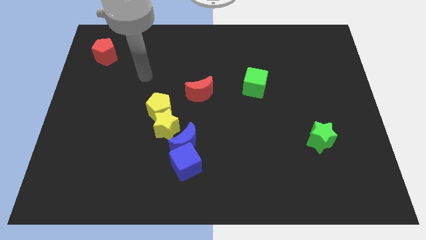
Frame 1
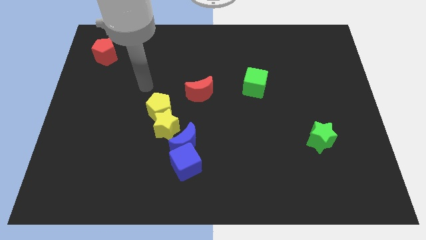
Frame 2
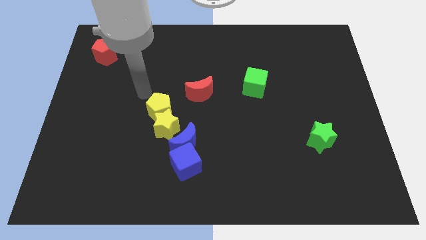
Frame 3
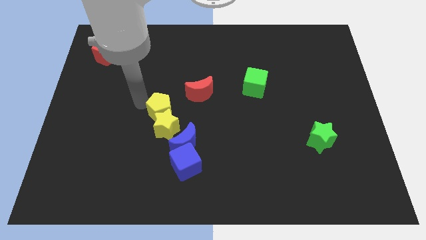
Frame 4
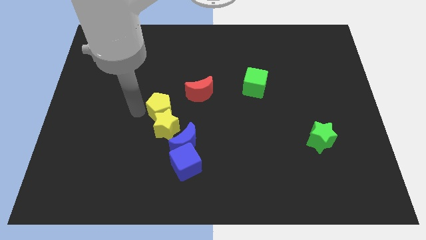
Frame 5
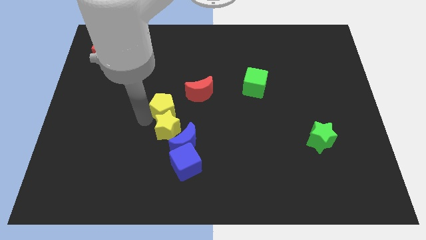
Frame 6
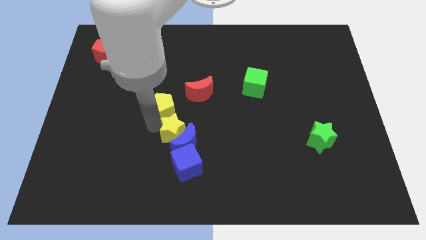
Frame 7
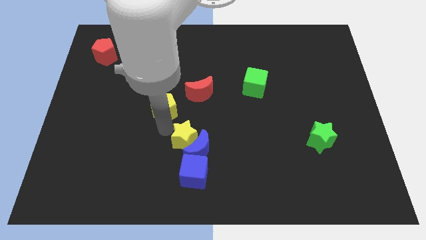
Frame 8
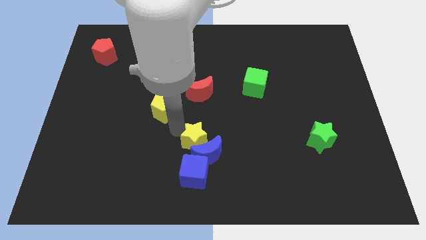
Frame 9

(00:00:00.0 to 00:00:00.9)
separate the yellow pentagon from the yellow star

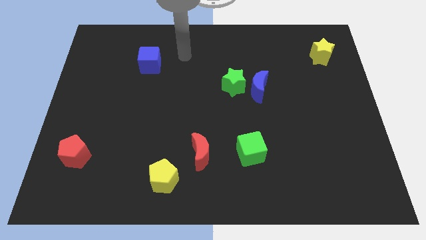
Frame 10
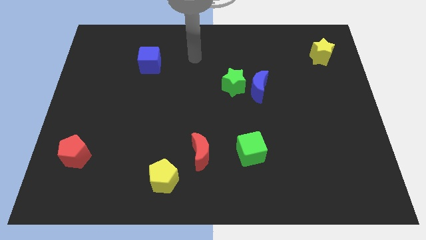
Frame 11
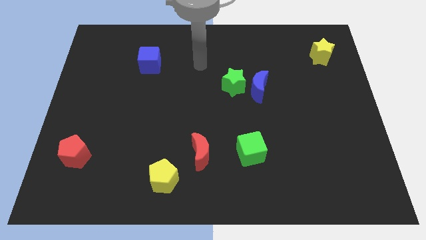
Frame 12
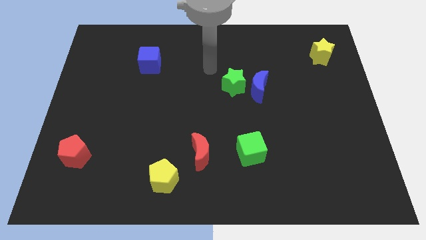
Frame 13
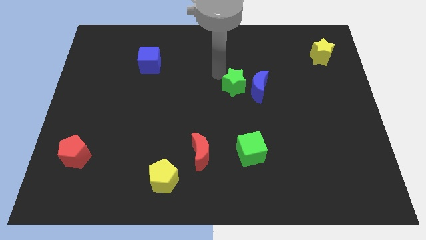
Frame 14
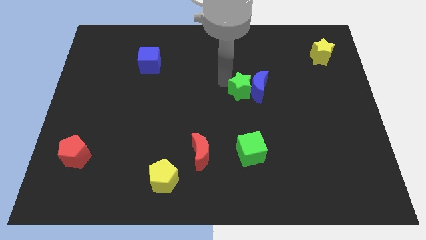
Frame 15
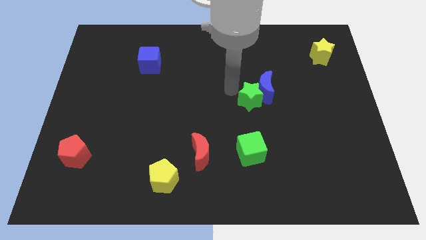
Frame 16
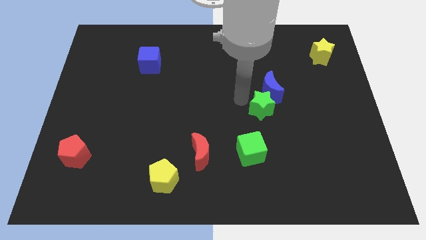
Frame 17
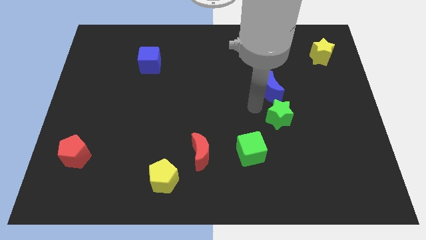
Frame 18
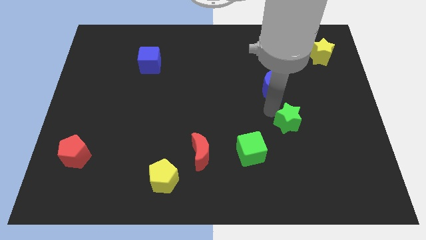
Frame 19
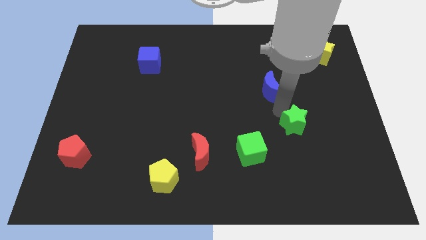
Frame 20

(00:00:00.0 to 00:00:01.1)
separate the blue moon from the green star

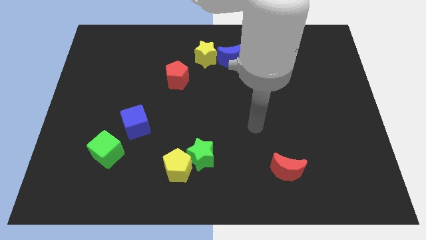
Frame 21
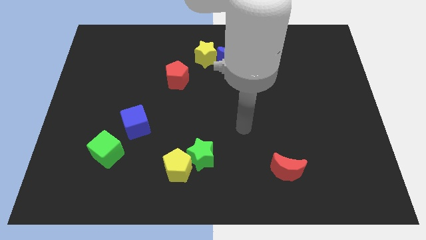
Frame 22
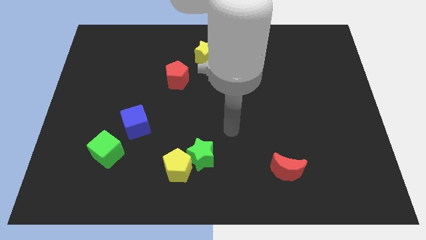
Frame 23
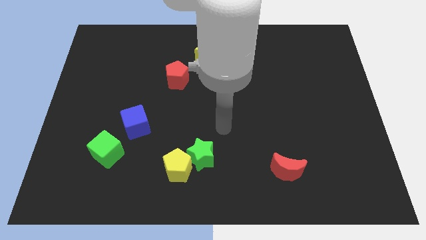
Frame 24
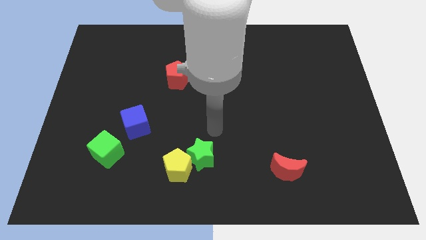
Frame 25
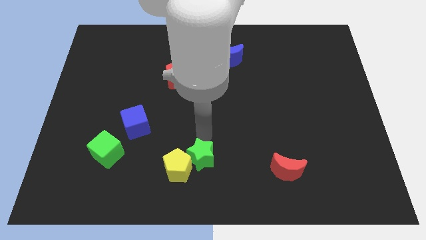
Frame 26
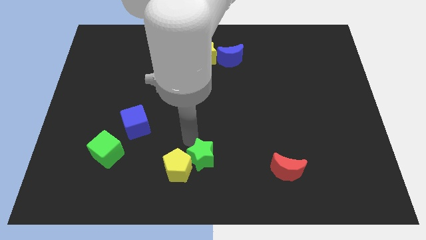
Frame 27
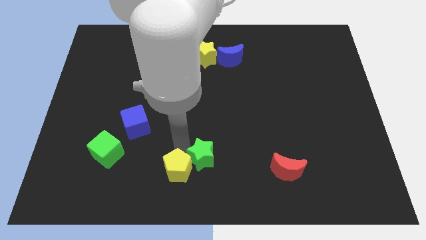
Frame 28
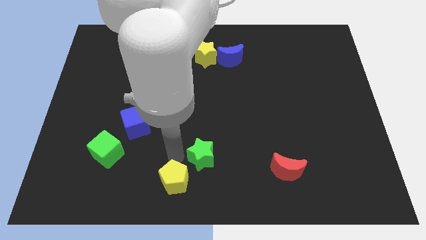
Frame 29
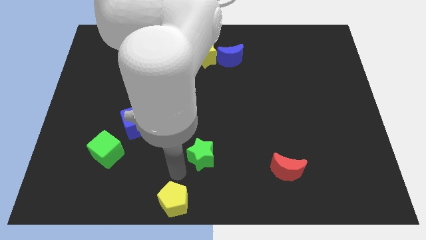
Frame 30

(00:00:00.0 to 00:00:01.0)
separate the green star from the yellow pentagon

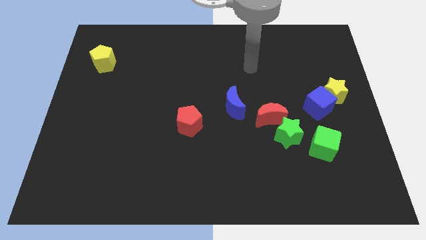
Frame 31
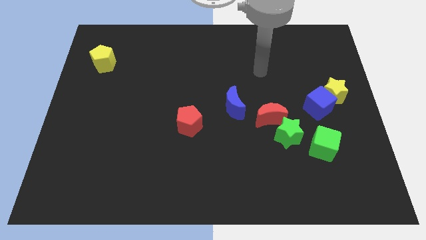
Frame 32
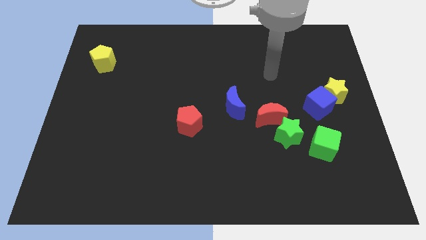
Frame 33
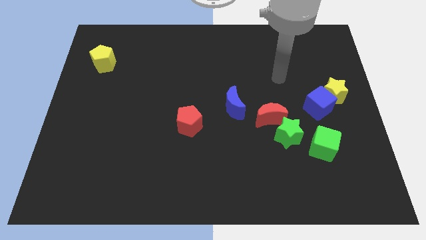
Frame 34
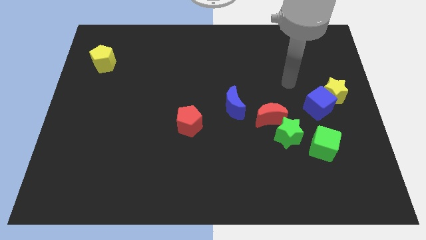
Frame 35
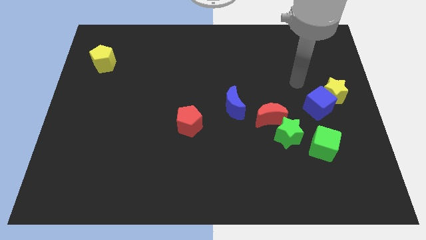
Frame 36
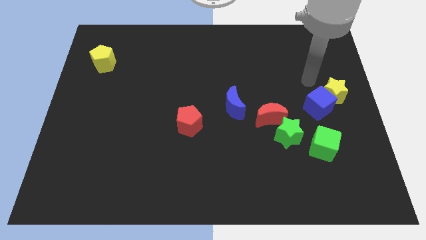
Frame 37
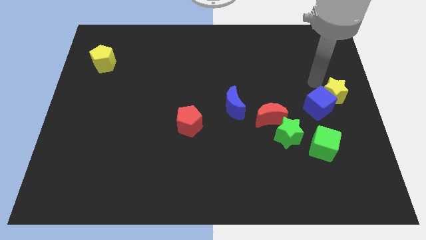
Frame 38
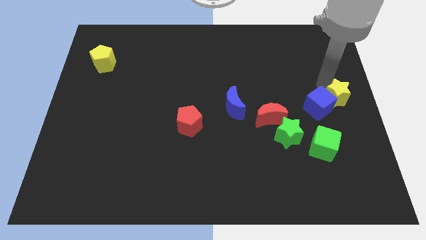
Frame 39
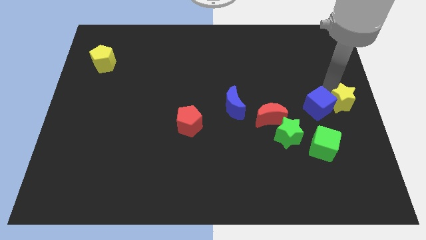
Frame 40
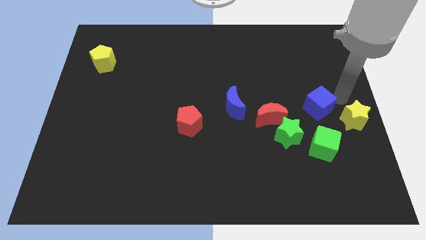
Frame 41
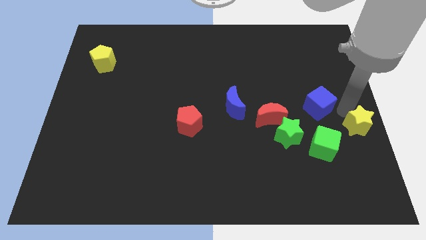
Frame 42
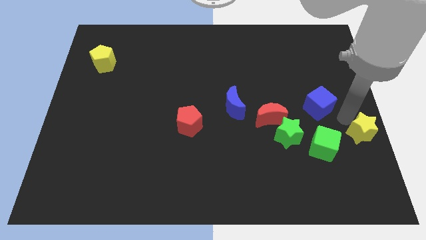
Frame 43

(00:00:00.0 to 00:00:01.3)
pull the blue cube apart from the yellow star

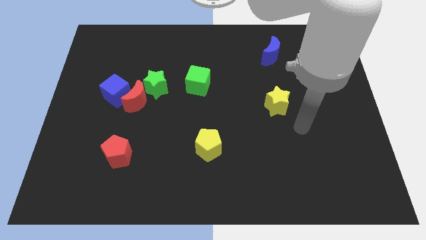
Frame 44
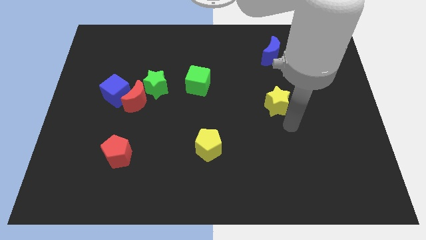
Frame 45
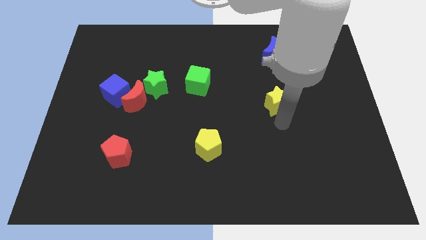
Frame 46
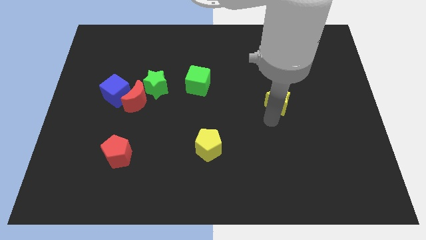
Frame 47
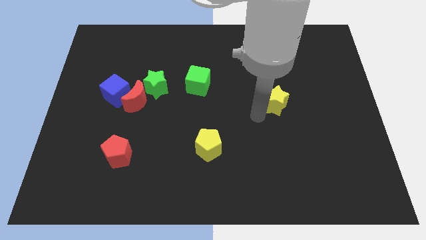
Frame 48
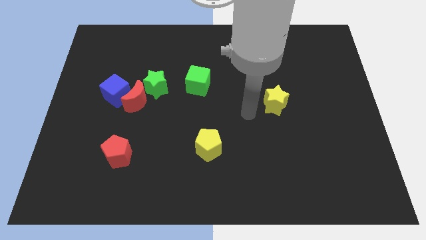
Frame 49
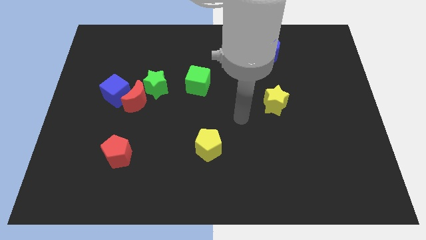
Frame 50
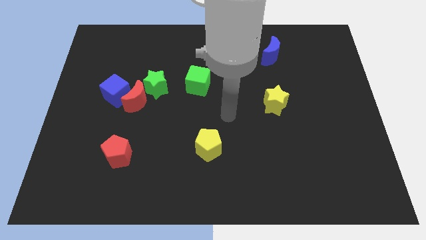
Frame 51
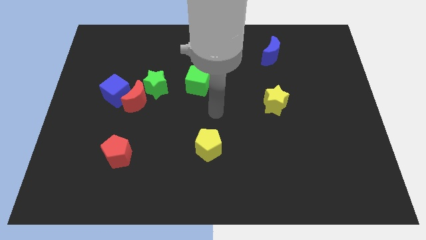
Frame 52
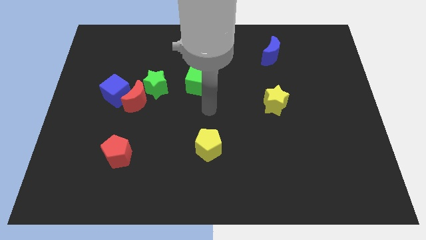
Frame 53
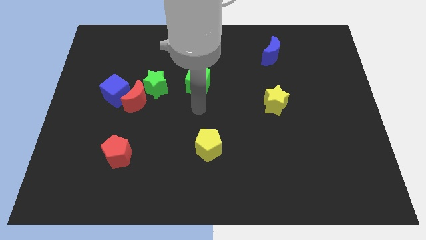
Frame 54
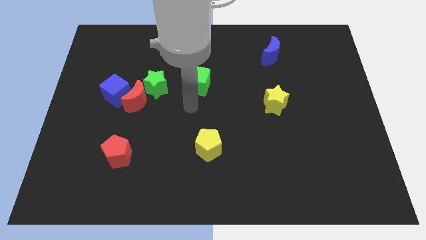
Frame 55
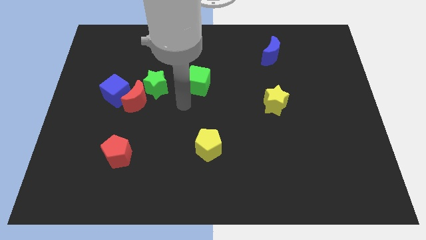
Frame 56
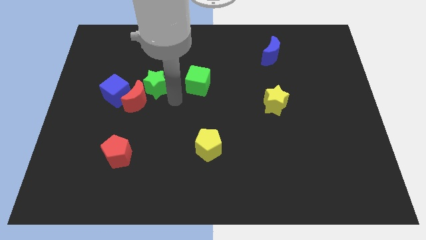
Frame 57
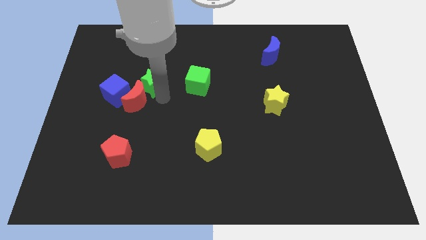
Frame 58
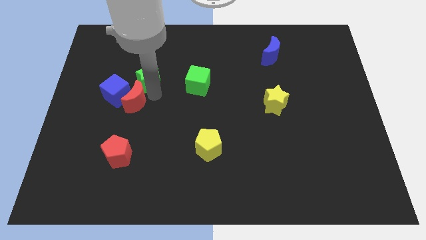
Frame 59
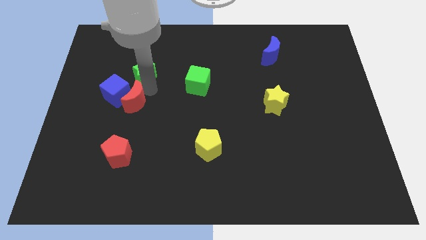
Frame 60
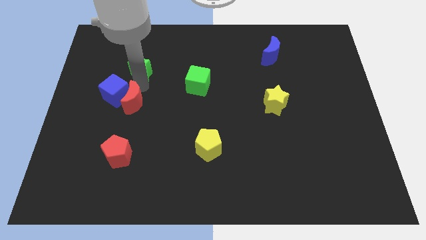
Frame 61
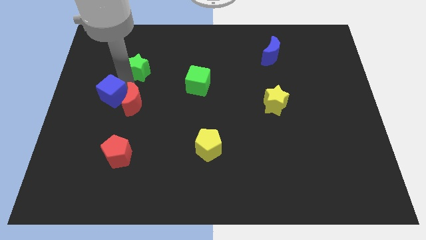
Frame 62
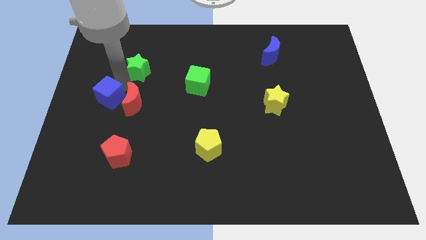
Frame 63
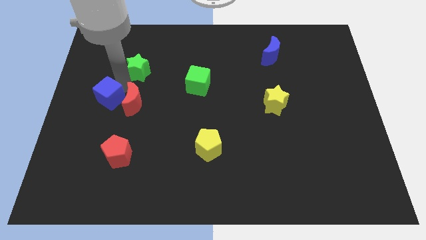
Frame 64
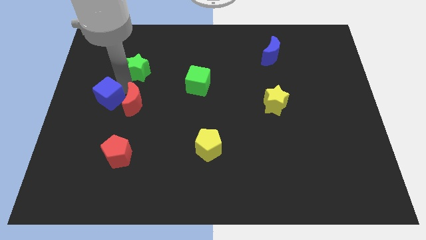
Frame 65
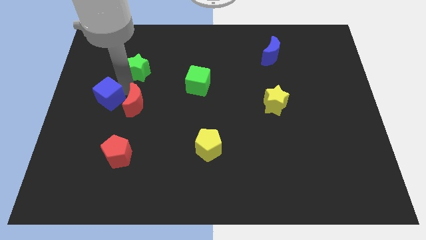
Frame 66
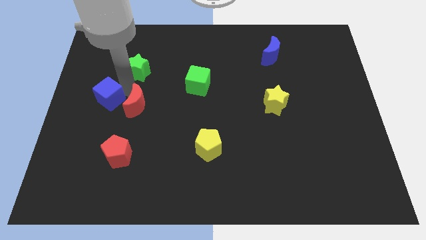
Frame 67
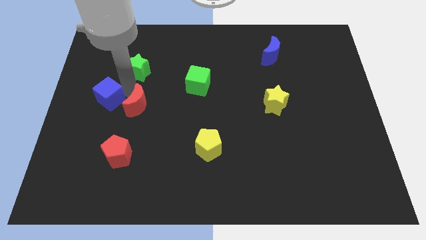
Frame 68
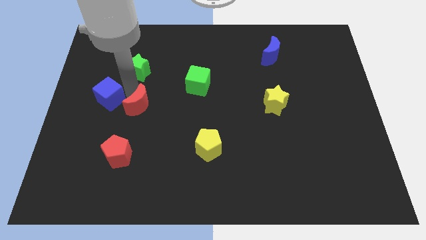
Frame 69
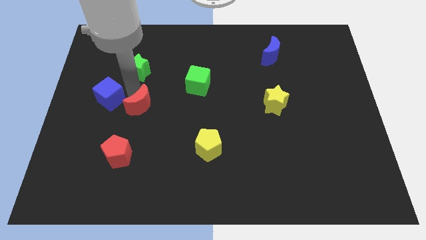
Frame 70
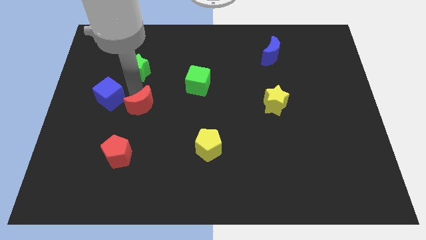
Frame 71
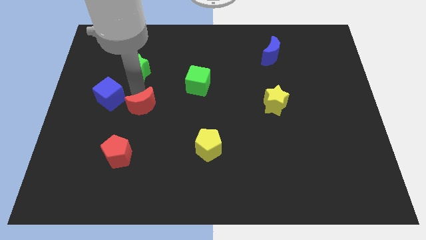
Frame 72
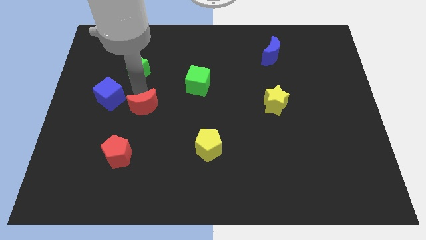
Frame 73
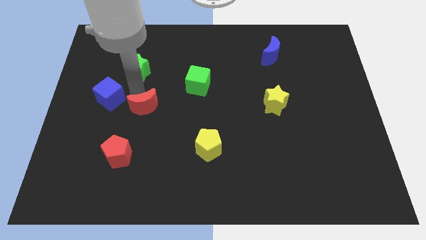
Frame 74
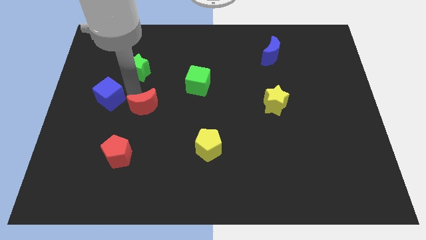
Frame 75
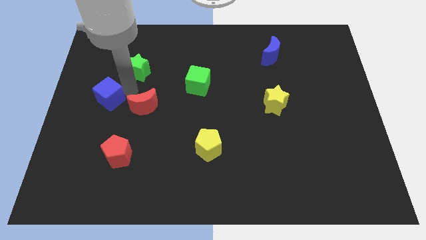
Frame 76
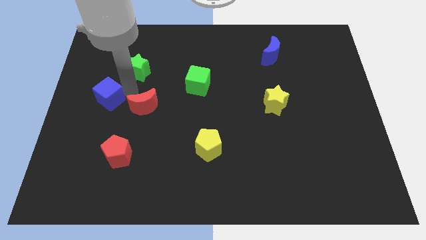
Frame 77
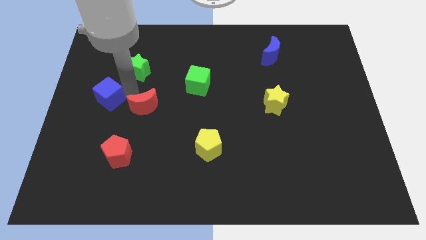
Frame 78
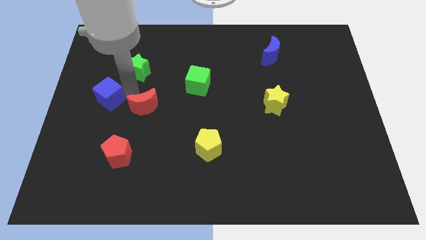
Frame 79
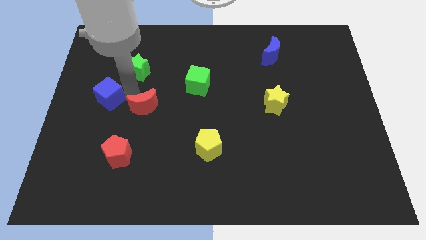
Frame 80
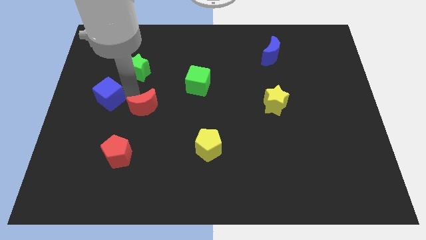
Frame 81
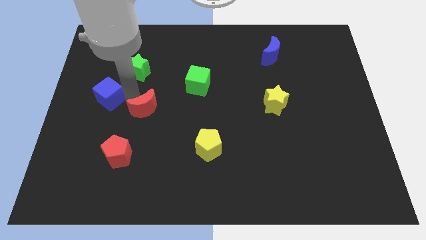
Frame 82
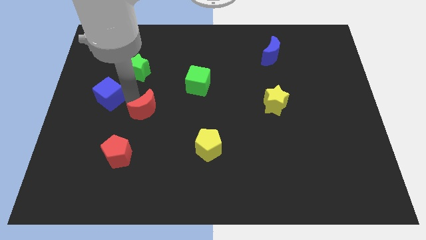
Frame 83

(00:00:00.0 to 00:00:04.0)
separate the red moon from the blue cube and green star

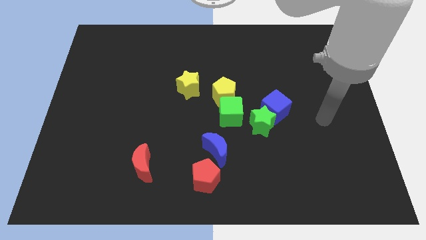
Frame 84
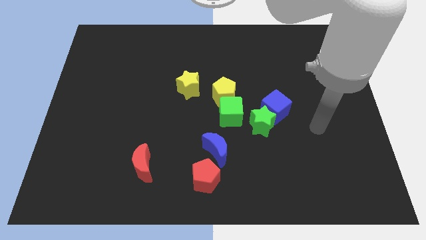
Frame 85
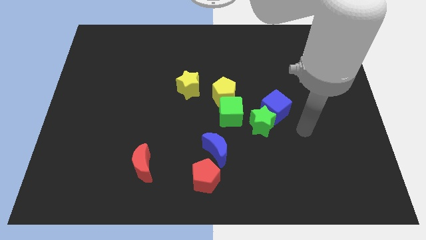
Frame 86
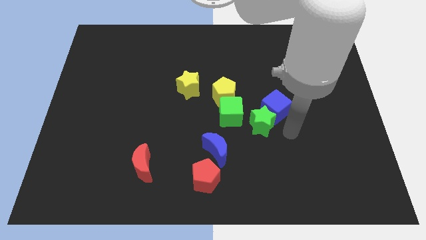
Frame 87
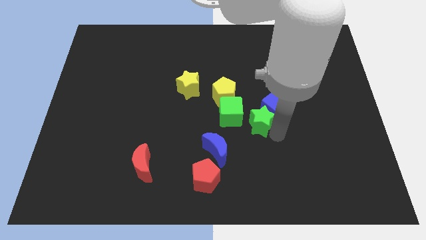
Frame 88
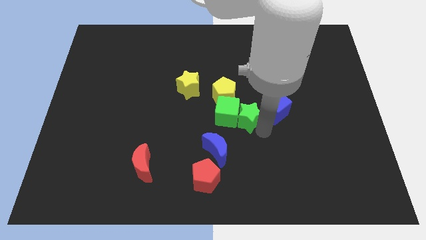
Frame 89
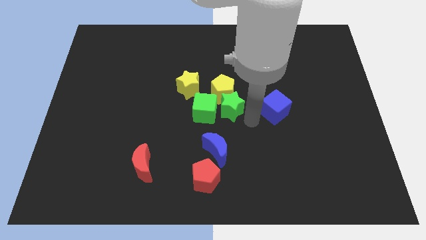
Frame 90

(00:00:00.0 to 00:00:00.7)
pull the blue cube apart from the green star

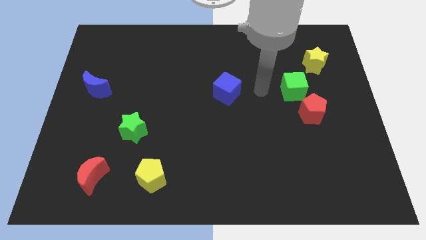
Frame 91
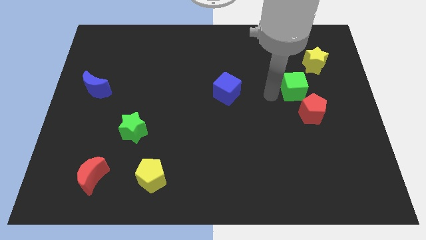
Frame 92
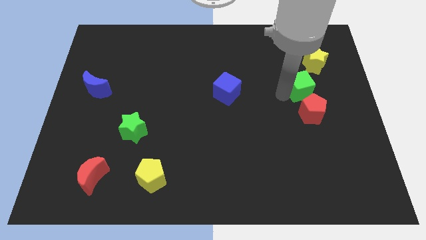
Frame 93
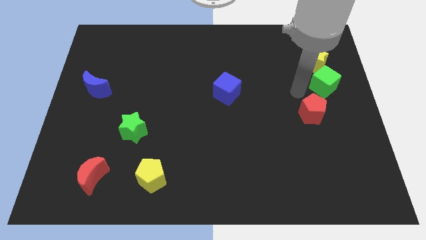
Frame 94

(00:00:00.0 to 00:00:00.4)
pull the red pentagon apart from the green cube
